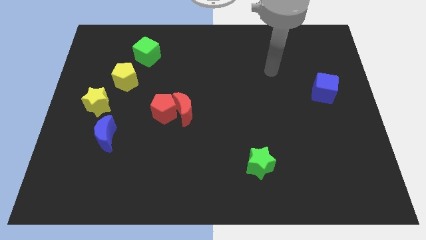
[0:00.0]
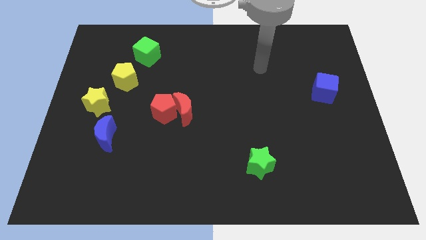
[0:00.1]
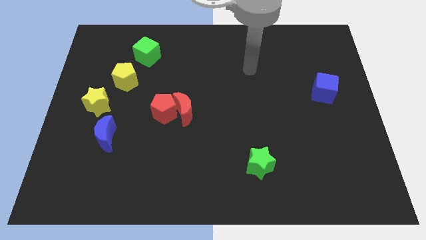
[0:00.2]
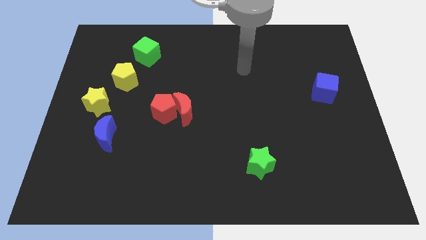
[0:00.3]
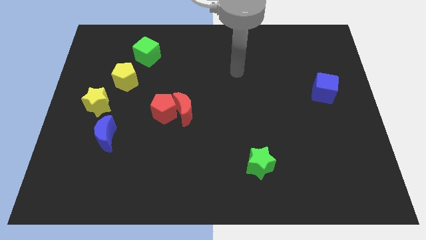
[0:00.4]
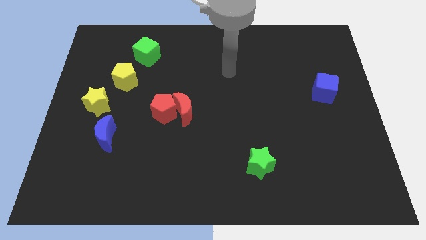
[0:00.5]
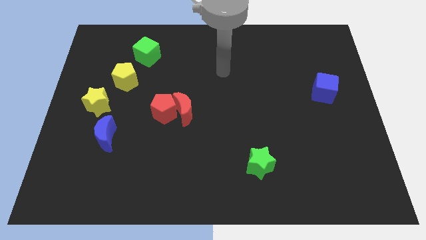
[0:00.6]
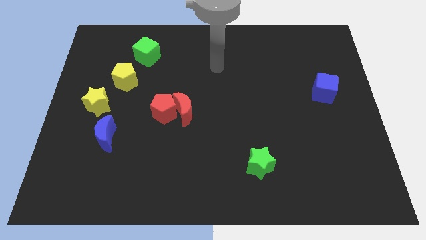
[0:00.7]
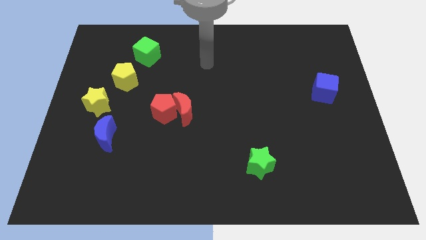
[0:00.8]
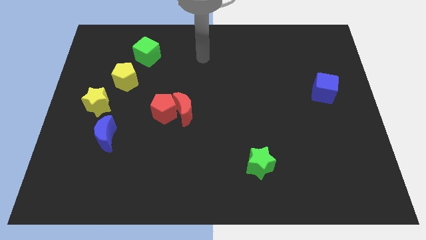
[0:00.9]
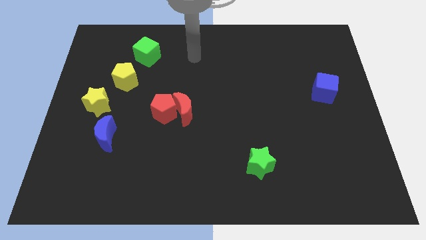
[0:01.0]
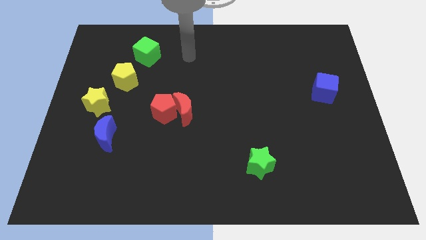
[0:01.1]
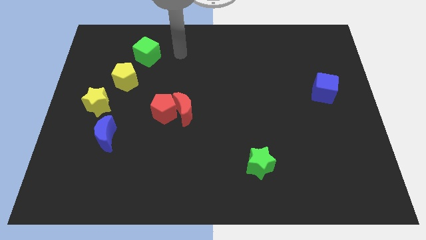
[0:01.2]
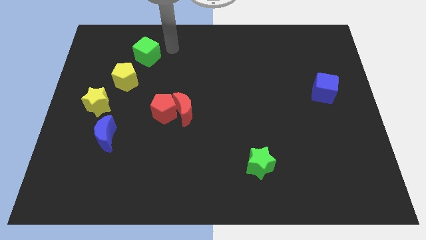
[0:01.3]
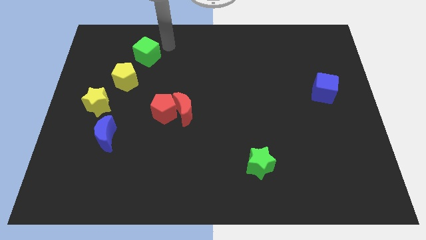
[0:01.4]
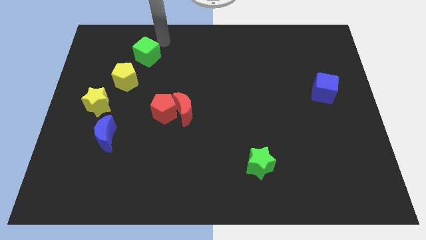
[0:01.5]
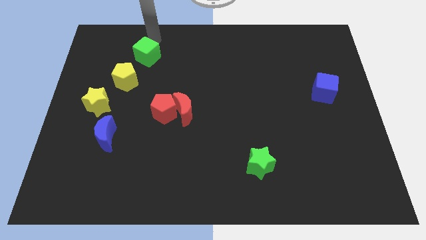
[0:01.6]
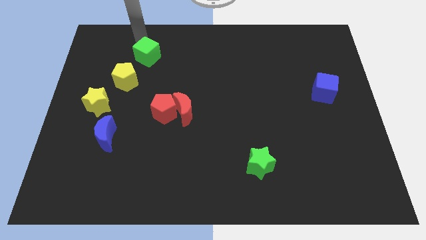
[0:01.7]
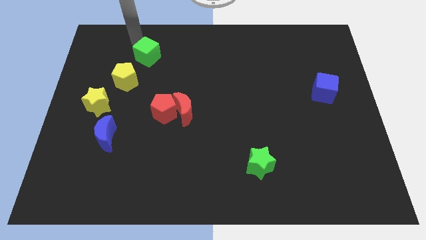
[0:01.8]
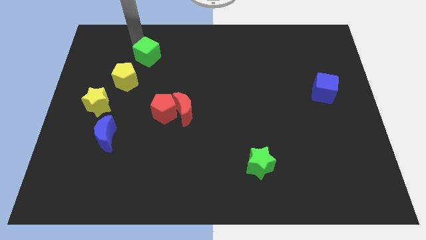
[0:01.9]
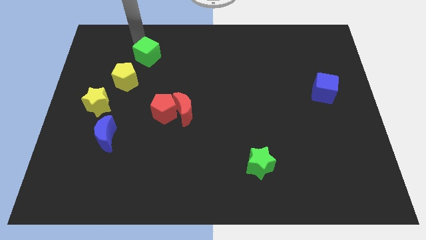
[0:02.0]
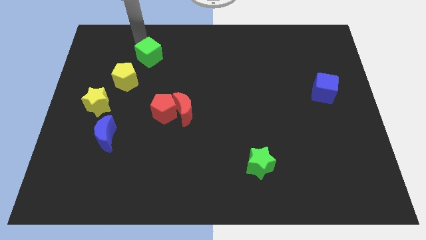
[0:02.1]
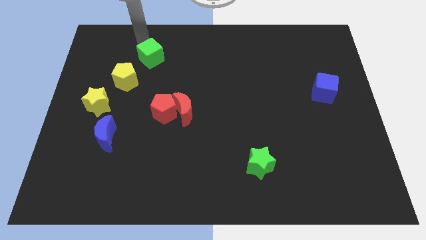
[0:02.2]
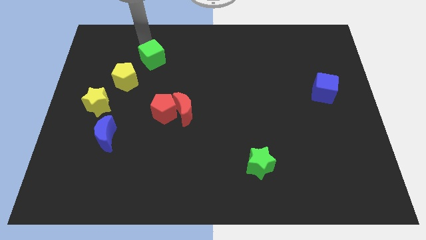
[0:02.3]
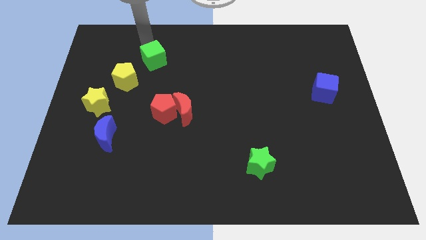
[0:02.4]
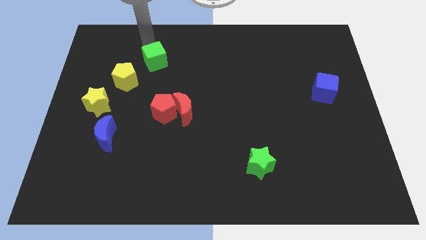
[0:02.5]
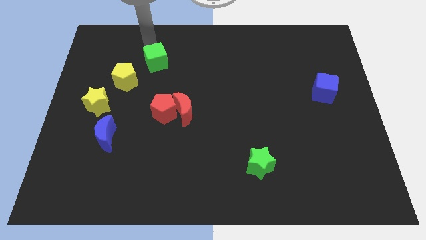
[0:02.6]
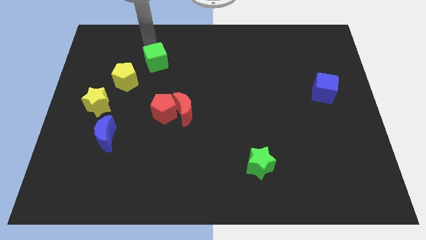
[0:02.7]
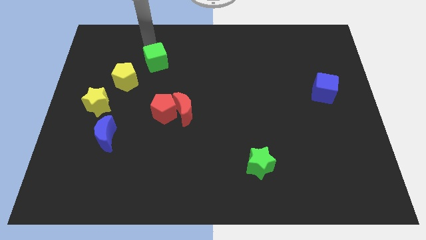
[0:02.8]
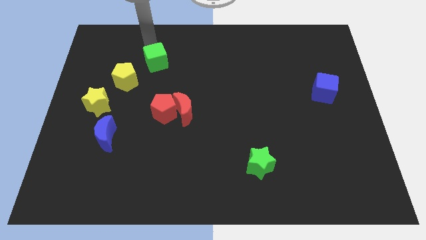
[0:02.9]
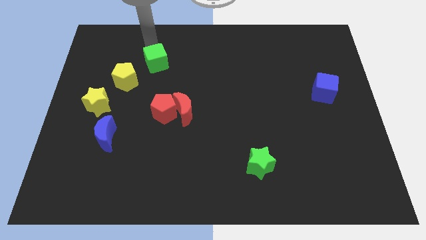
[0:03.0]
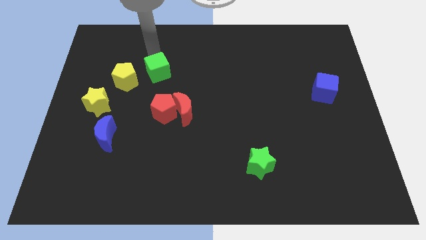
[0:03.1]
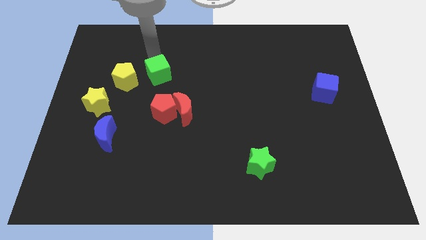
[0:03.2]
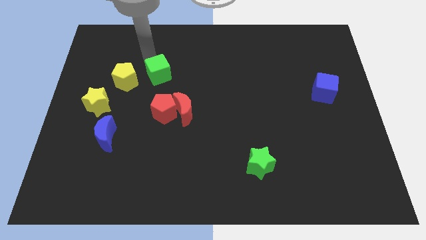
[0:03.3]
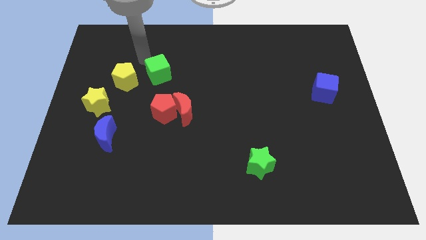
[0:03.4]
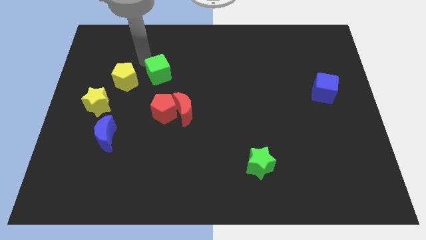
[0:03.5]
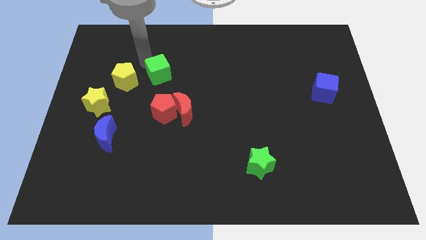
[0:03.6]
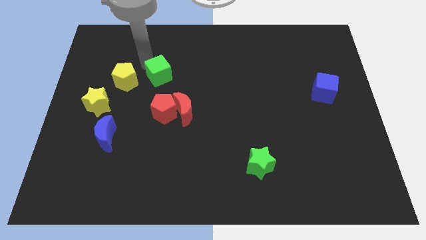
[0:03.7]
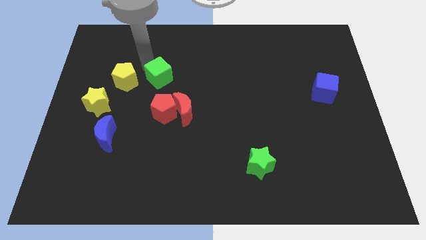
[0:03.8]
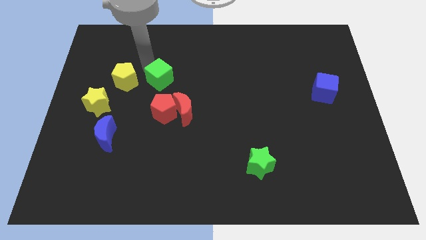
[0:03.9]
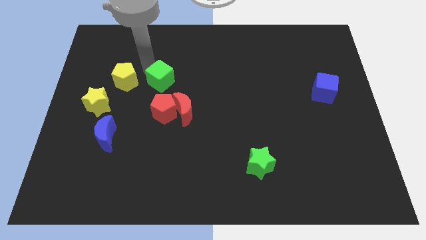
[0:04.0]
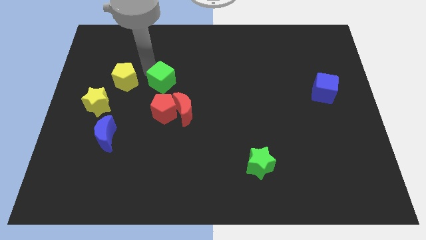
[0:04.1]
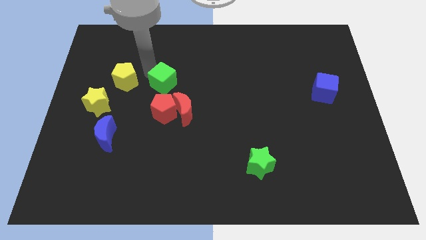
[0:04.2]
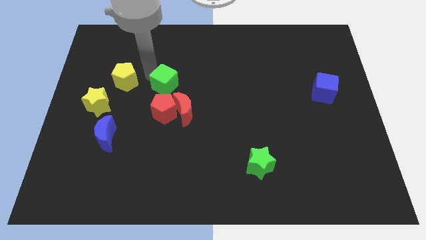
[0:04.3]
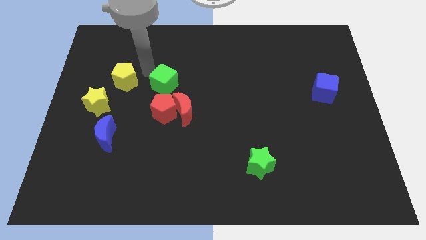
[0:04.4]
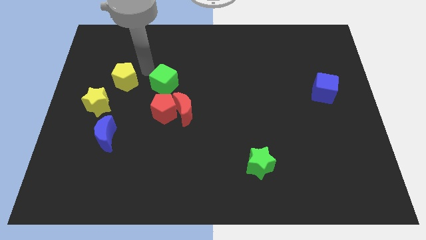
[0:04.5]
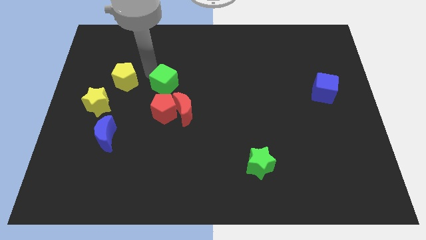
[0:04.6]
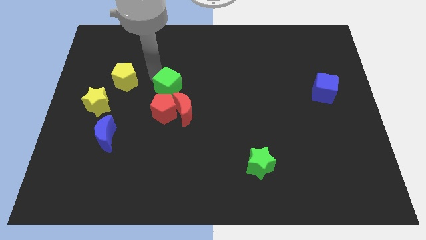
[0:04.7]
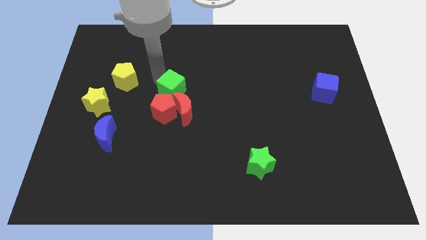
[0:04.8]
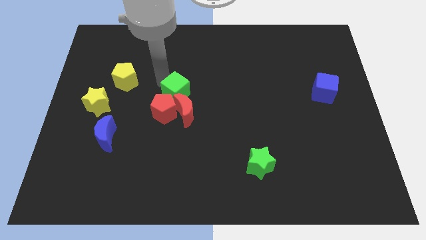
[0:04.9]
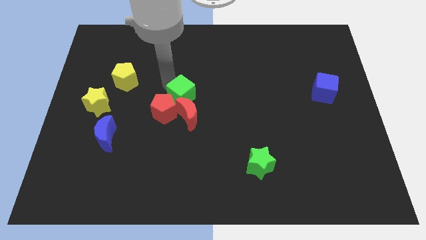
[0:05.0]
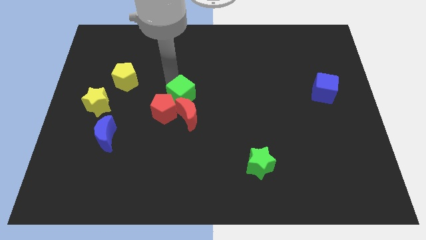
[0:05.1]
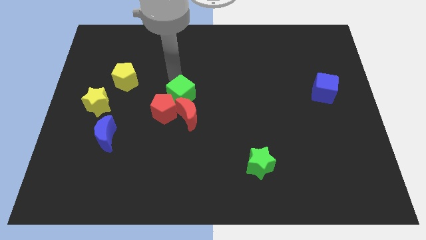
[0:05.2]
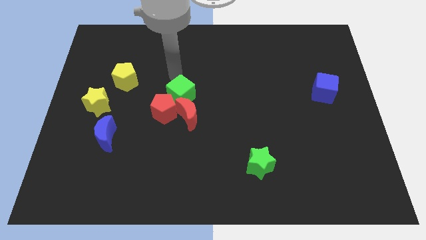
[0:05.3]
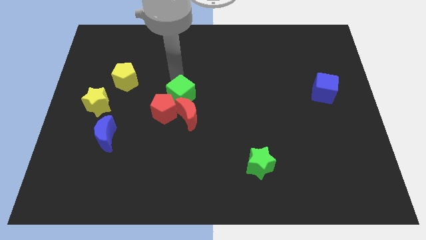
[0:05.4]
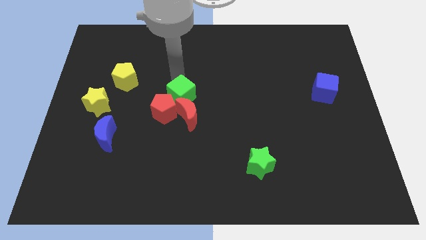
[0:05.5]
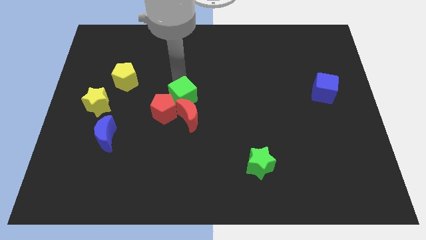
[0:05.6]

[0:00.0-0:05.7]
slide the green cube close to the red moon

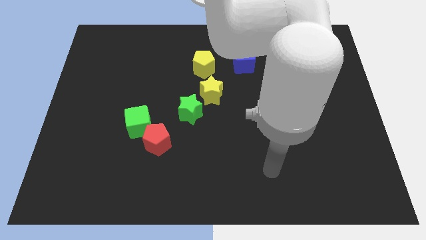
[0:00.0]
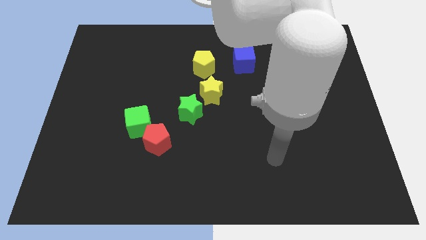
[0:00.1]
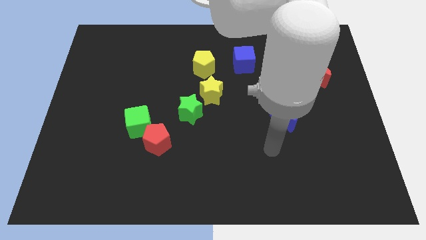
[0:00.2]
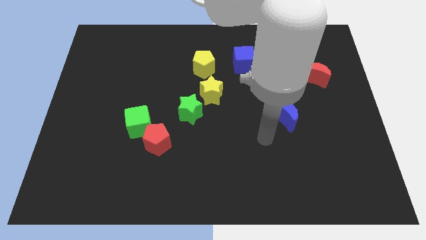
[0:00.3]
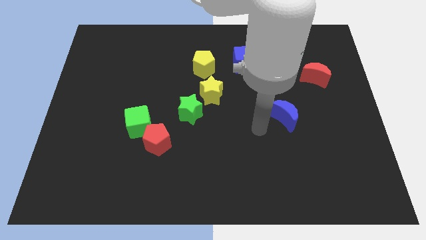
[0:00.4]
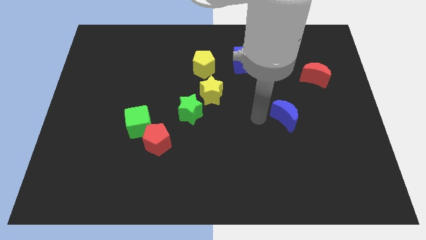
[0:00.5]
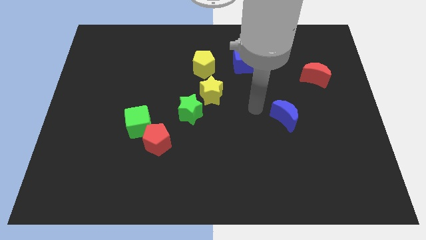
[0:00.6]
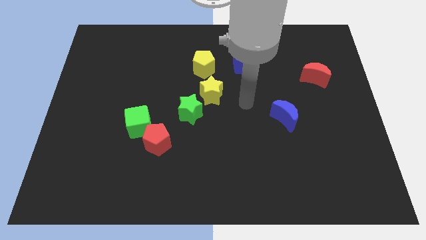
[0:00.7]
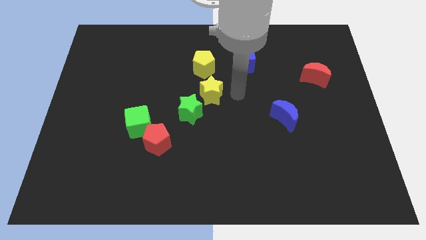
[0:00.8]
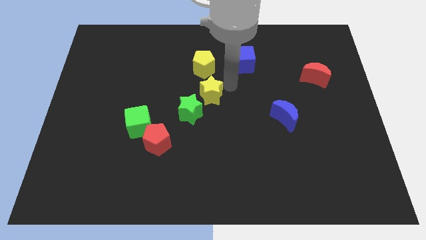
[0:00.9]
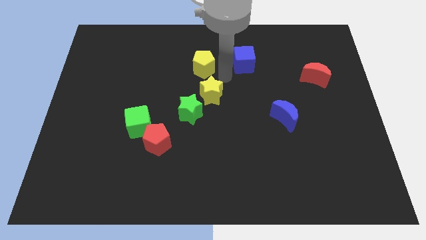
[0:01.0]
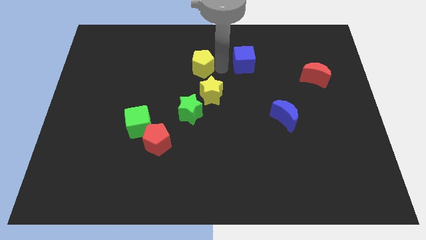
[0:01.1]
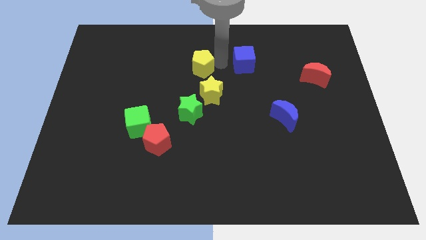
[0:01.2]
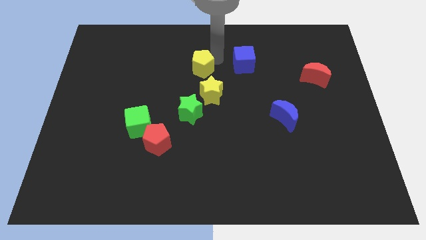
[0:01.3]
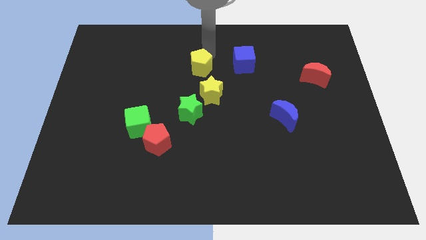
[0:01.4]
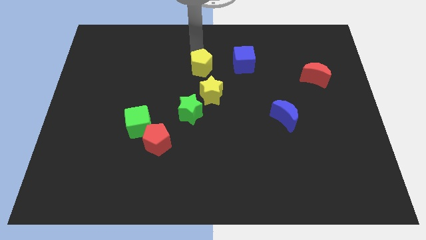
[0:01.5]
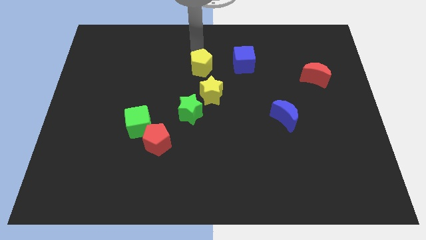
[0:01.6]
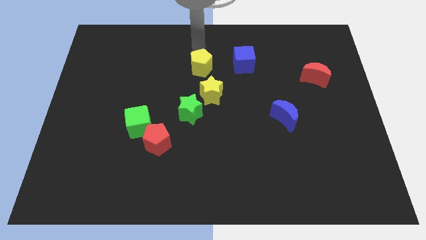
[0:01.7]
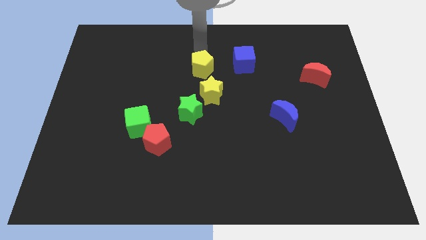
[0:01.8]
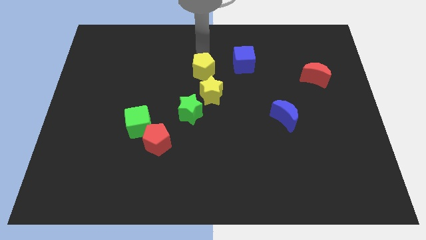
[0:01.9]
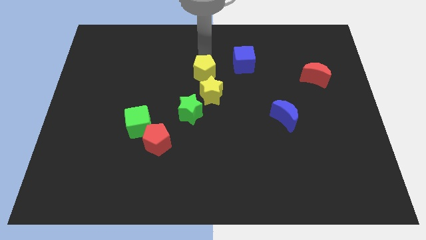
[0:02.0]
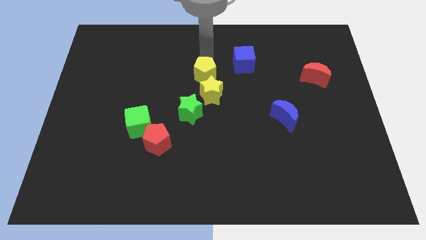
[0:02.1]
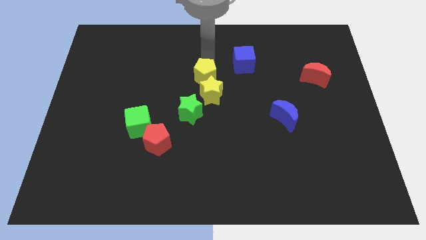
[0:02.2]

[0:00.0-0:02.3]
move the yellow pentagon close to the yellow star

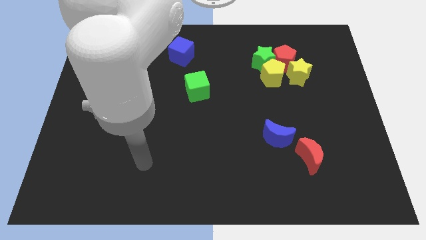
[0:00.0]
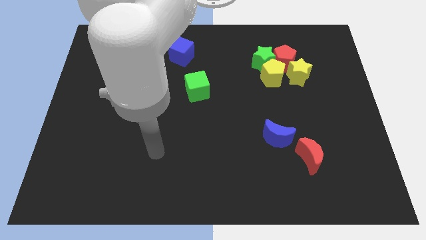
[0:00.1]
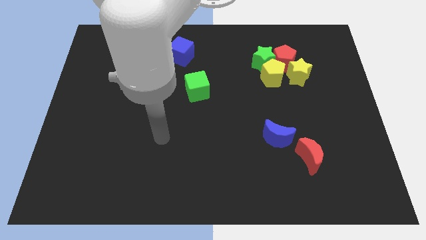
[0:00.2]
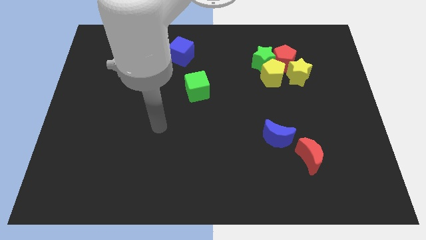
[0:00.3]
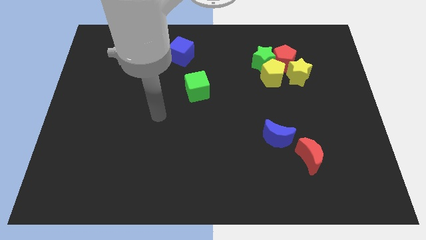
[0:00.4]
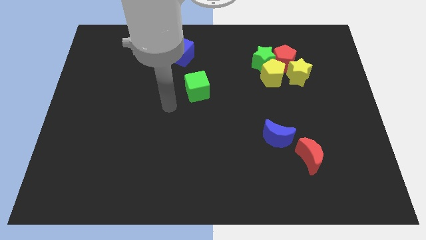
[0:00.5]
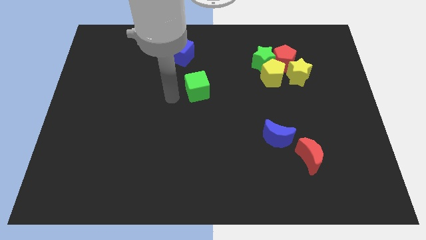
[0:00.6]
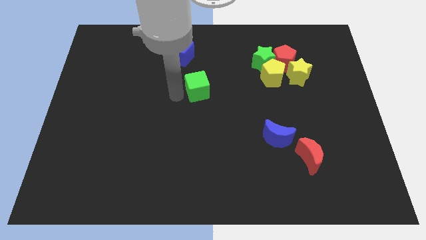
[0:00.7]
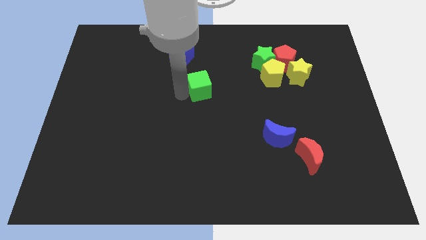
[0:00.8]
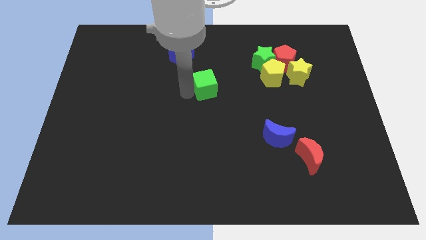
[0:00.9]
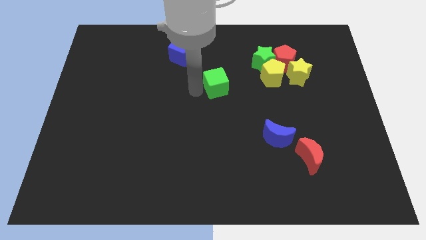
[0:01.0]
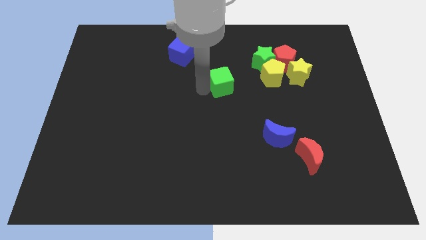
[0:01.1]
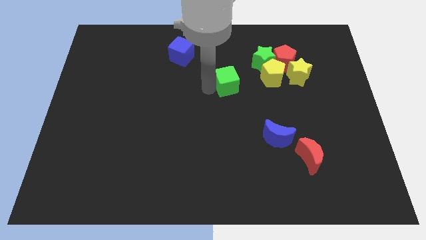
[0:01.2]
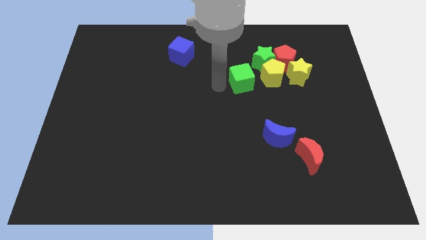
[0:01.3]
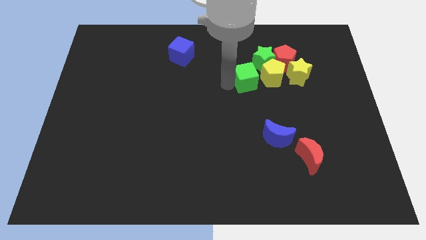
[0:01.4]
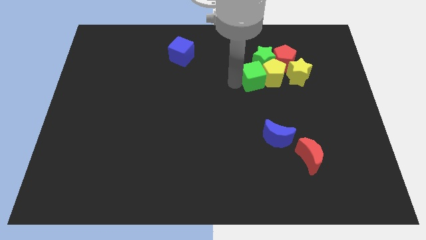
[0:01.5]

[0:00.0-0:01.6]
push the green cube close to the yellow pentagon
